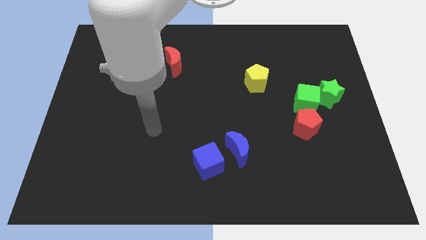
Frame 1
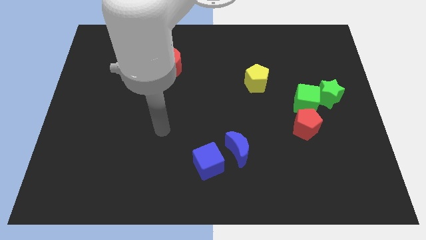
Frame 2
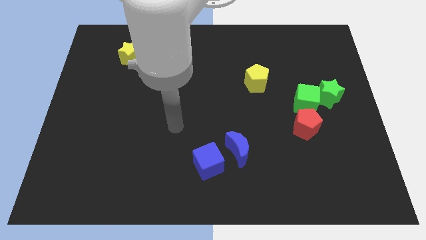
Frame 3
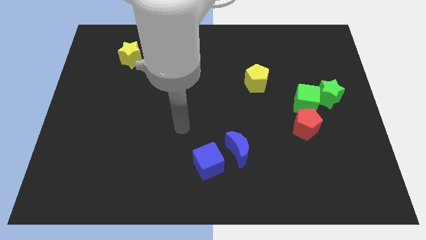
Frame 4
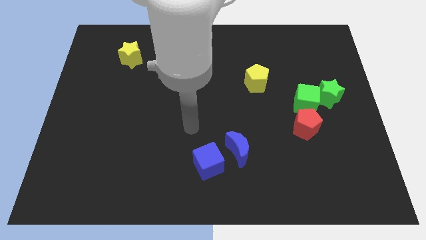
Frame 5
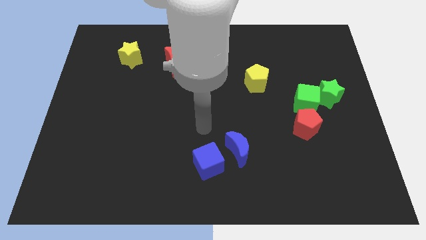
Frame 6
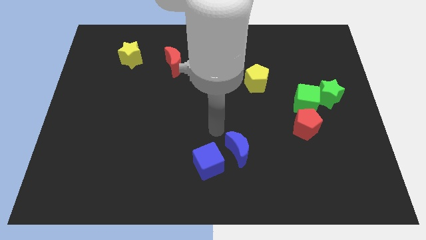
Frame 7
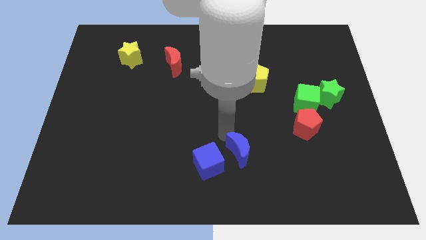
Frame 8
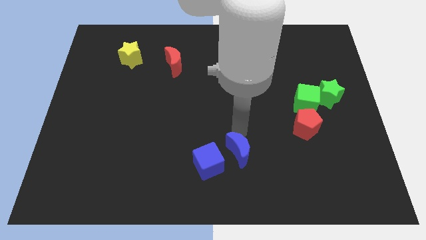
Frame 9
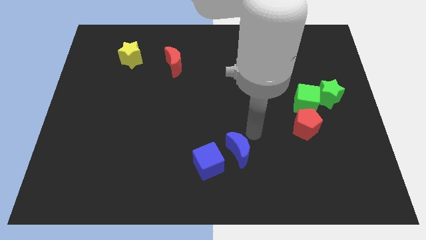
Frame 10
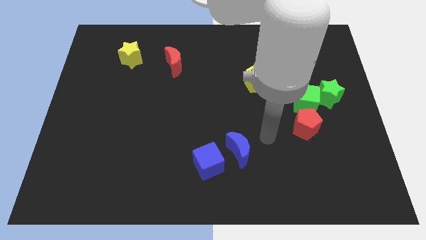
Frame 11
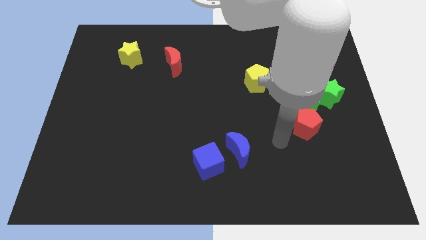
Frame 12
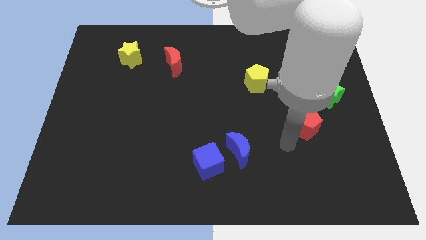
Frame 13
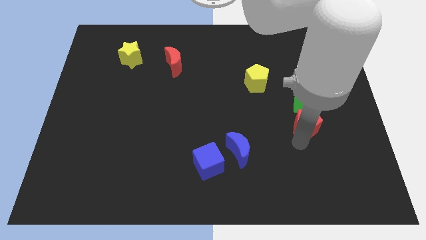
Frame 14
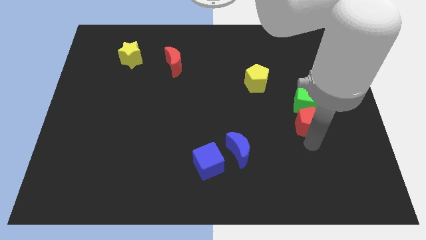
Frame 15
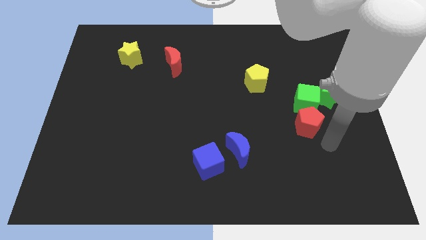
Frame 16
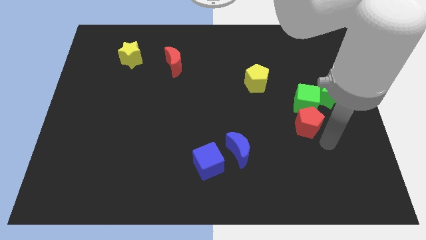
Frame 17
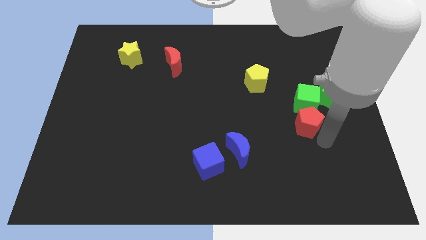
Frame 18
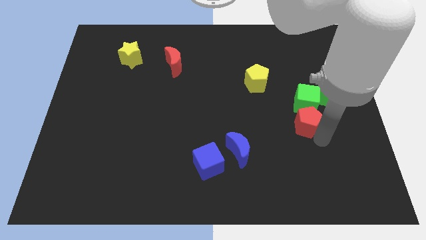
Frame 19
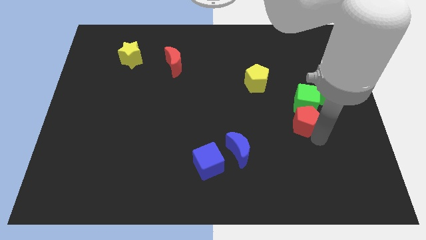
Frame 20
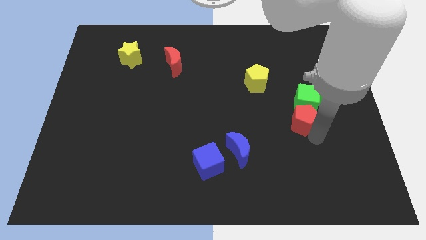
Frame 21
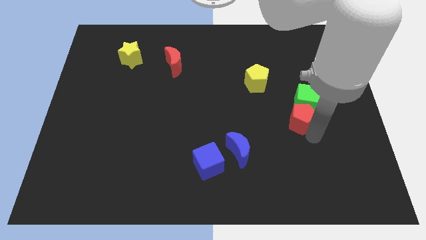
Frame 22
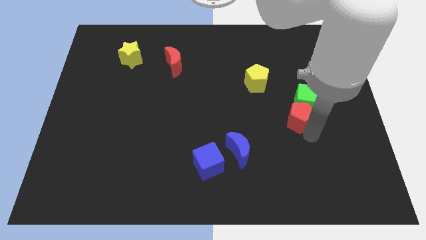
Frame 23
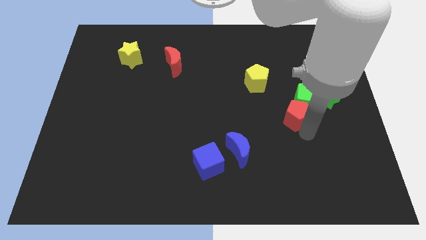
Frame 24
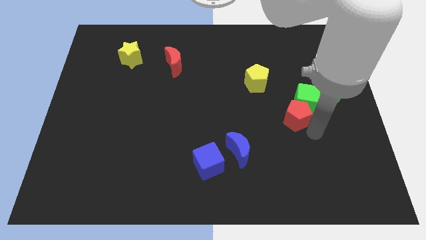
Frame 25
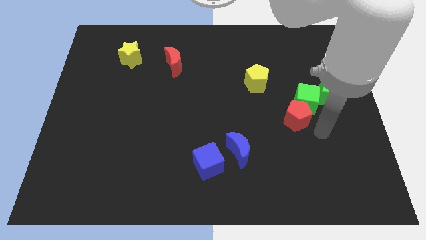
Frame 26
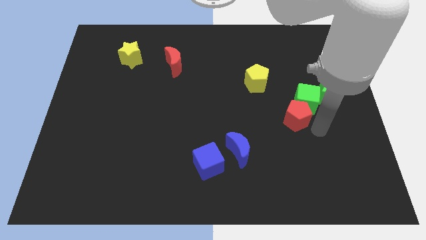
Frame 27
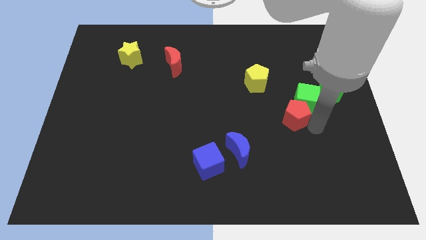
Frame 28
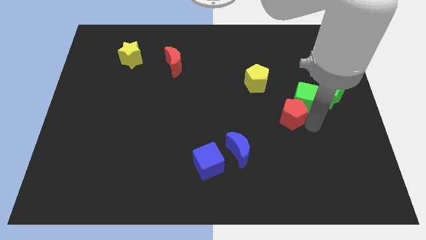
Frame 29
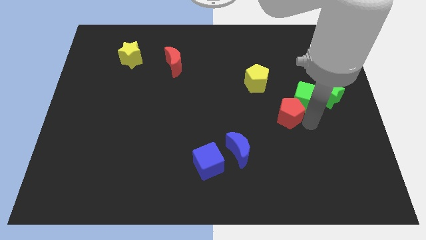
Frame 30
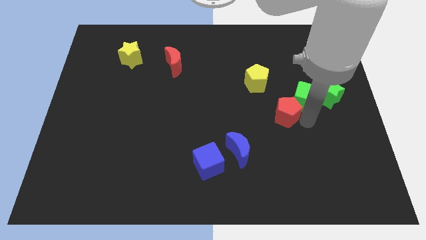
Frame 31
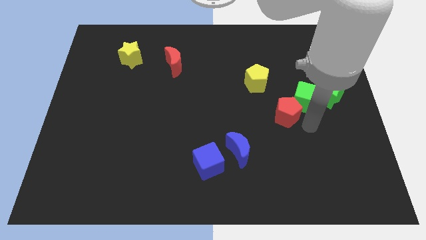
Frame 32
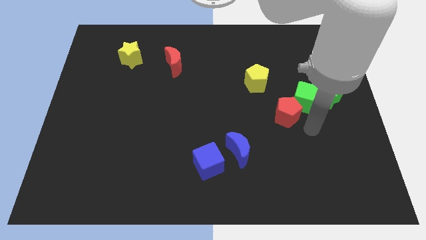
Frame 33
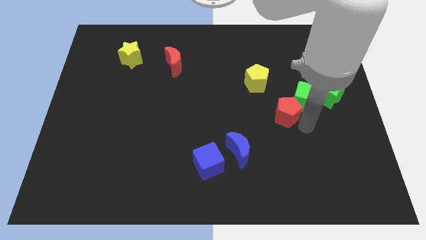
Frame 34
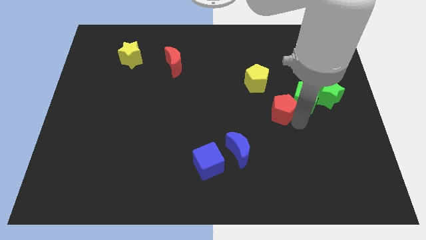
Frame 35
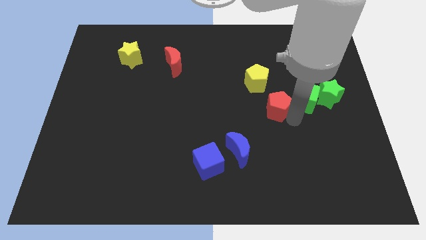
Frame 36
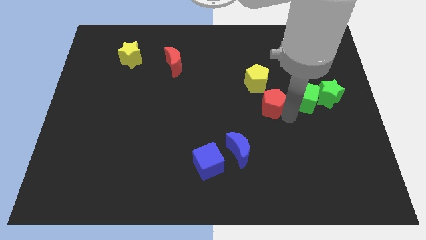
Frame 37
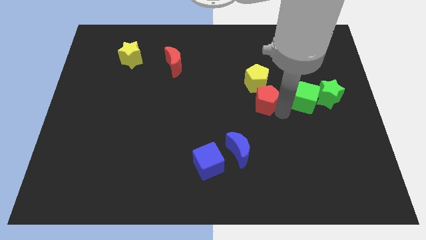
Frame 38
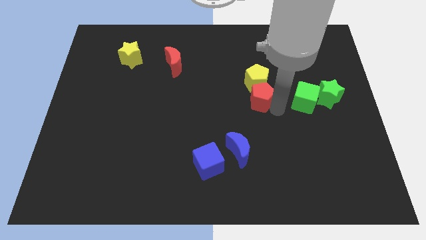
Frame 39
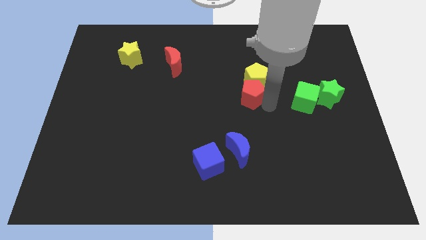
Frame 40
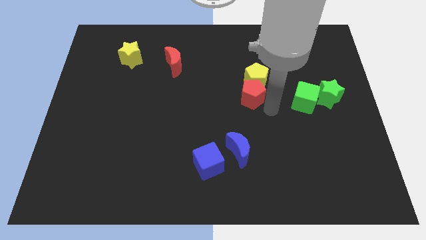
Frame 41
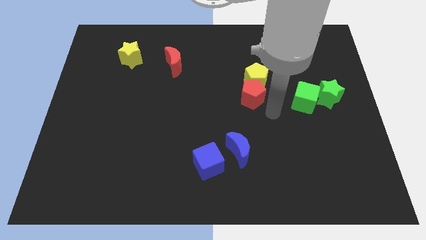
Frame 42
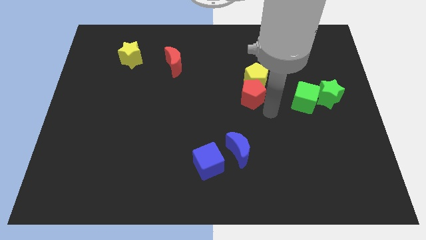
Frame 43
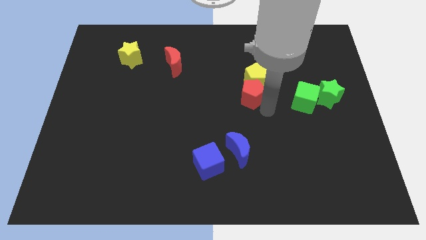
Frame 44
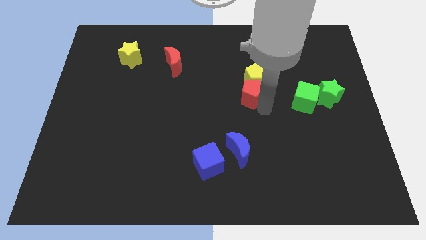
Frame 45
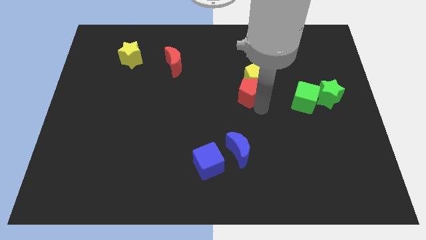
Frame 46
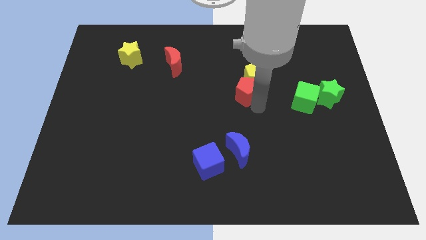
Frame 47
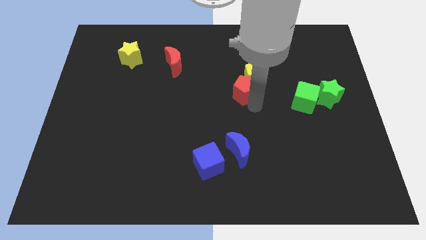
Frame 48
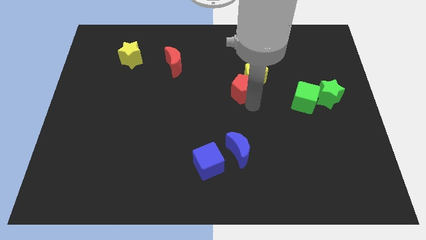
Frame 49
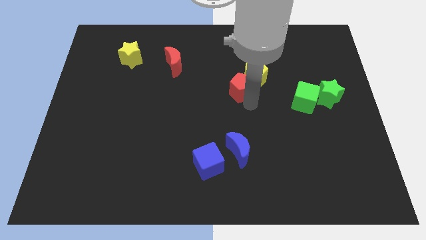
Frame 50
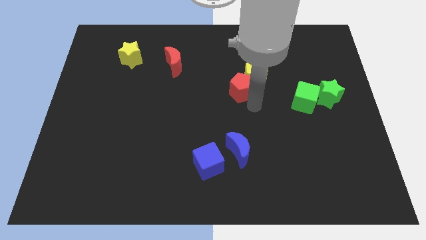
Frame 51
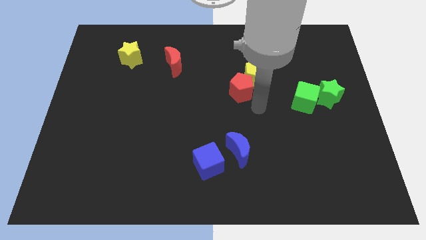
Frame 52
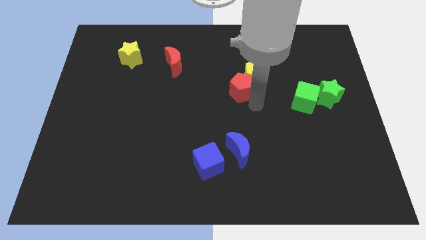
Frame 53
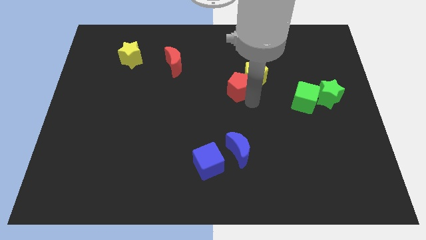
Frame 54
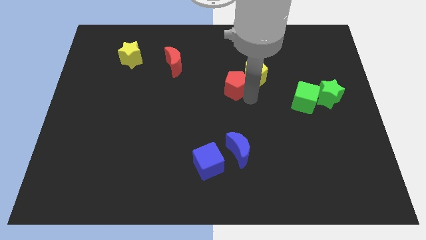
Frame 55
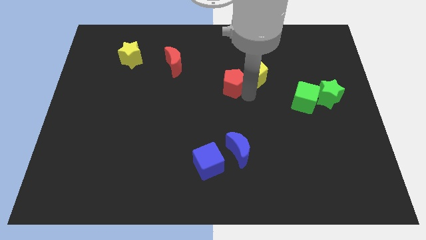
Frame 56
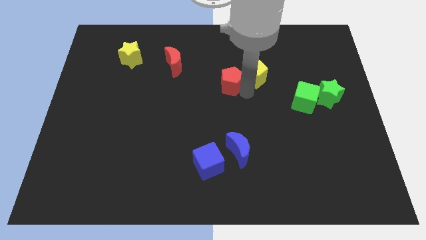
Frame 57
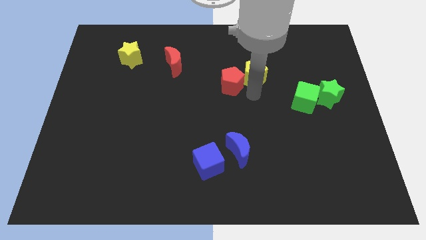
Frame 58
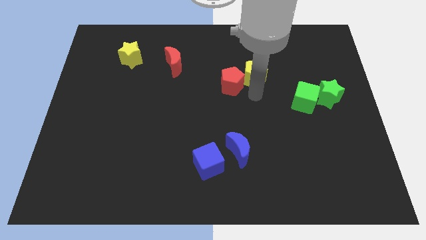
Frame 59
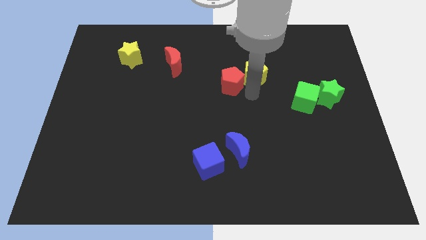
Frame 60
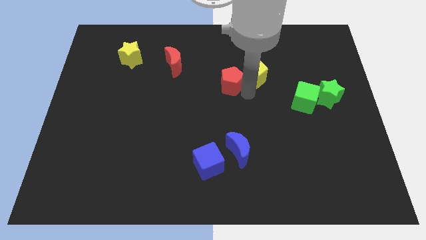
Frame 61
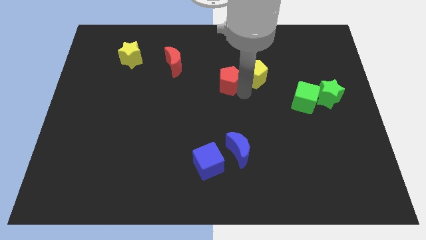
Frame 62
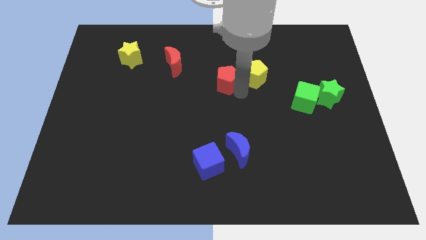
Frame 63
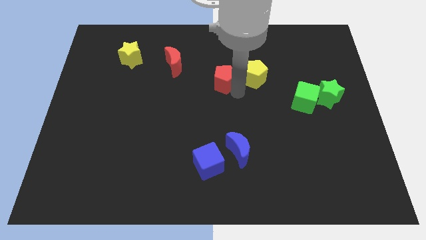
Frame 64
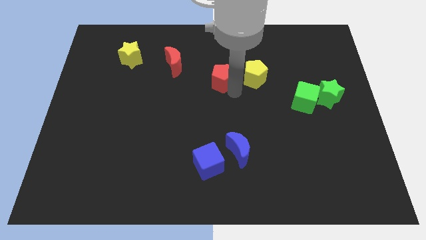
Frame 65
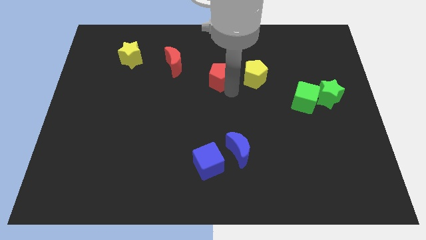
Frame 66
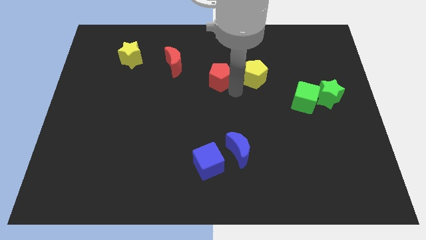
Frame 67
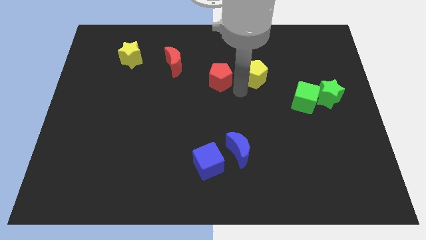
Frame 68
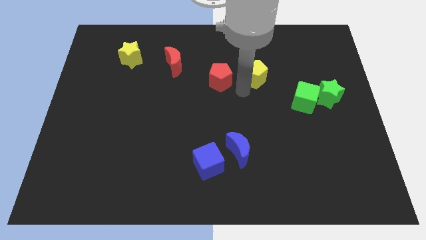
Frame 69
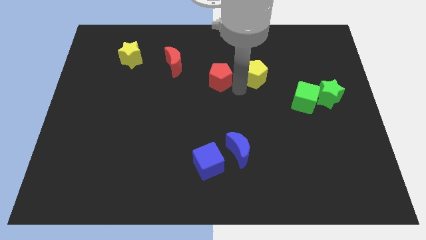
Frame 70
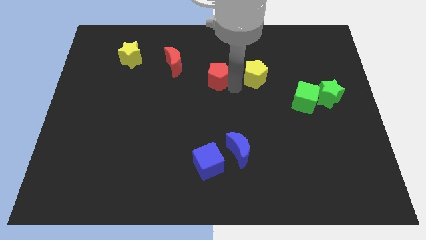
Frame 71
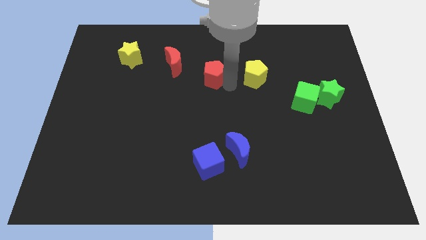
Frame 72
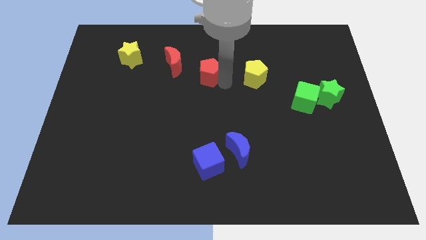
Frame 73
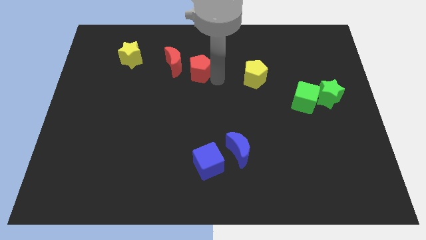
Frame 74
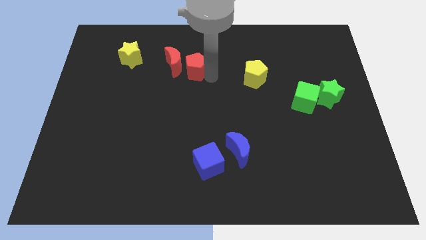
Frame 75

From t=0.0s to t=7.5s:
push the red pentagon towards the red moon
